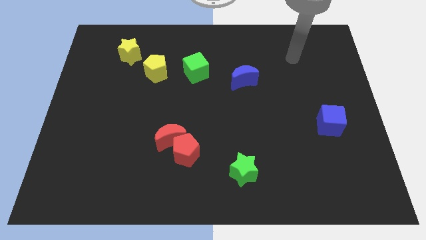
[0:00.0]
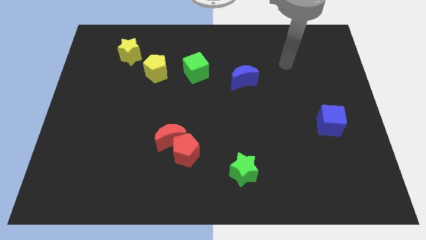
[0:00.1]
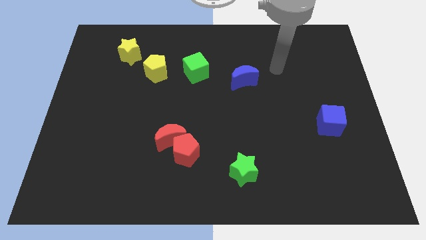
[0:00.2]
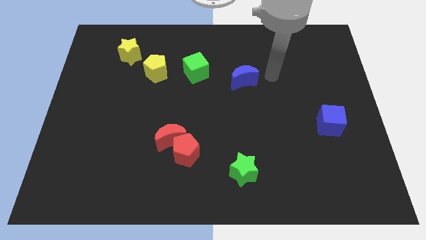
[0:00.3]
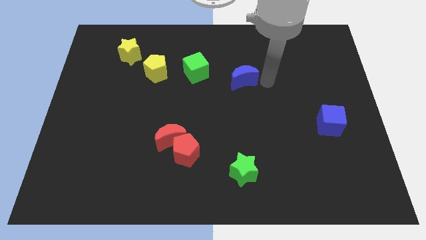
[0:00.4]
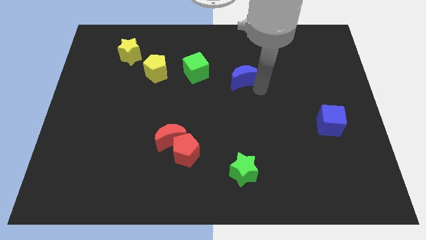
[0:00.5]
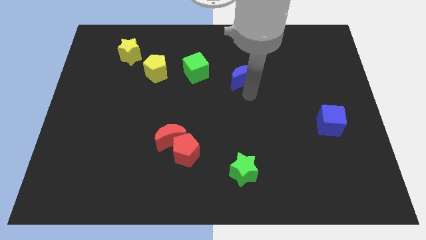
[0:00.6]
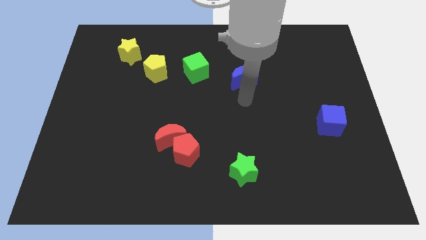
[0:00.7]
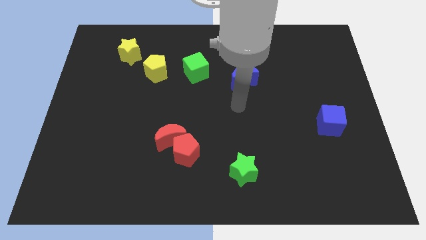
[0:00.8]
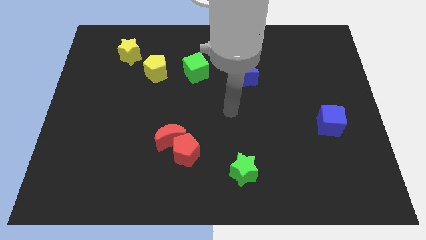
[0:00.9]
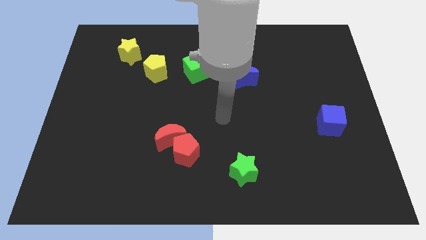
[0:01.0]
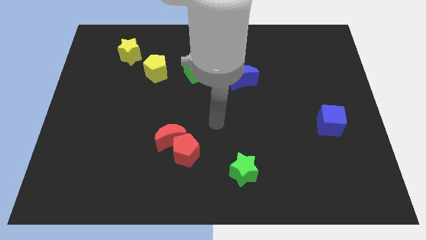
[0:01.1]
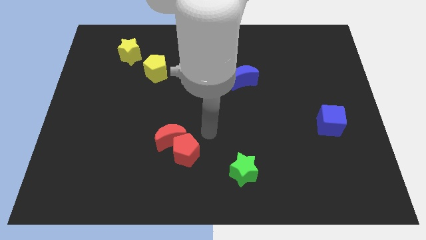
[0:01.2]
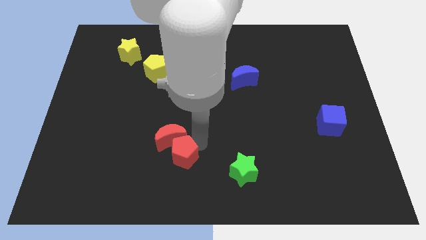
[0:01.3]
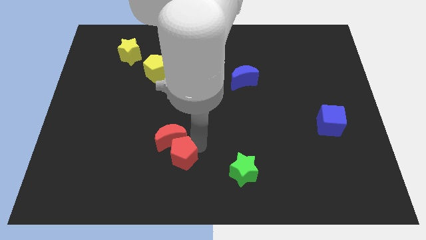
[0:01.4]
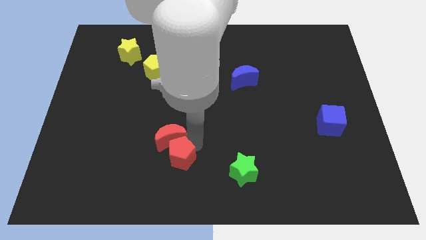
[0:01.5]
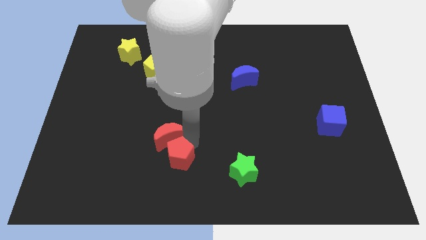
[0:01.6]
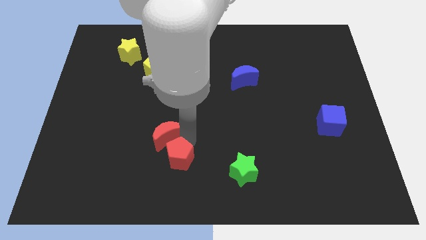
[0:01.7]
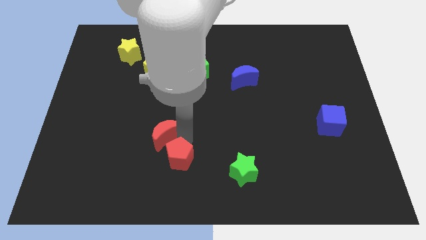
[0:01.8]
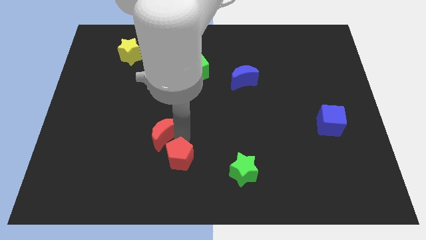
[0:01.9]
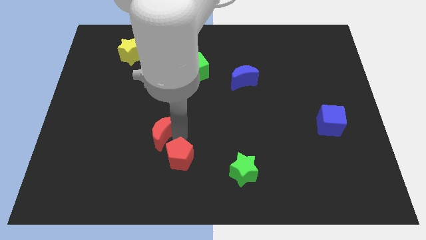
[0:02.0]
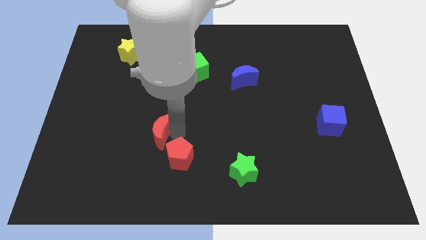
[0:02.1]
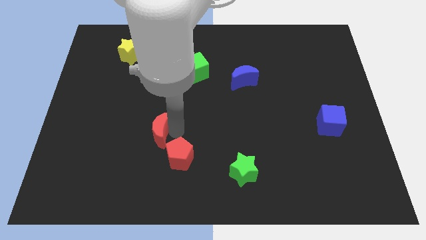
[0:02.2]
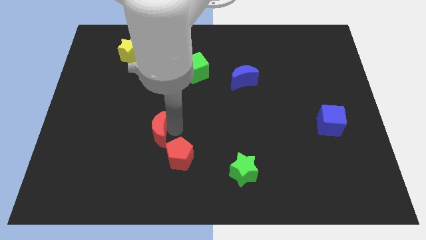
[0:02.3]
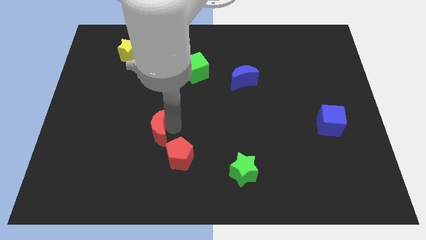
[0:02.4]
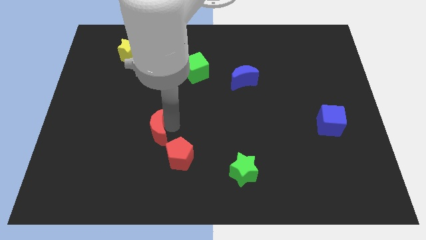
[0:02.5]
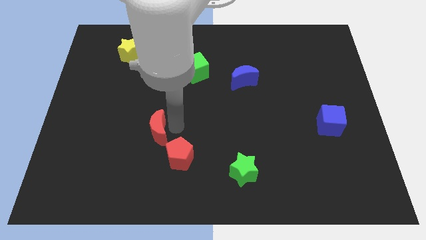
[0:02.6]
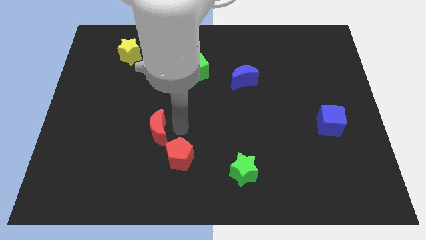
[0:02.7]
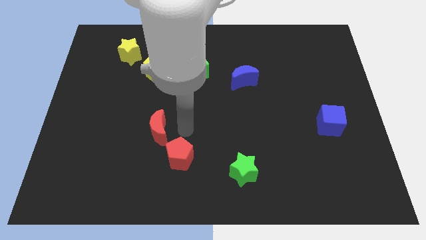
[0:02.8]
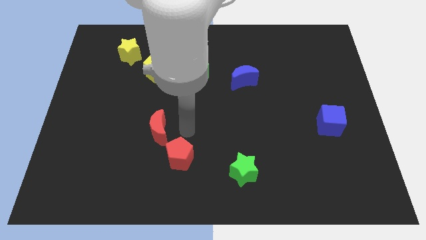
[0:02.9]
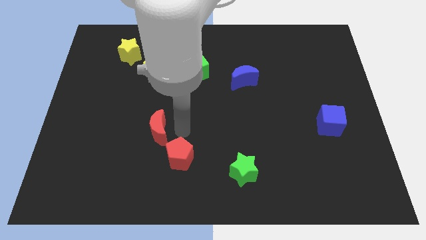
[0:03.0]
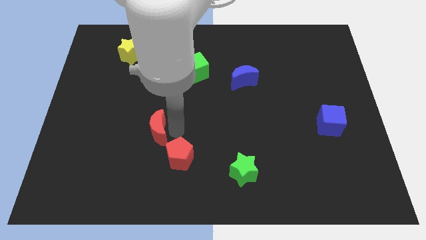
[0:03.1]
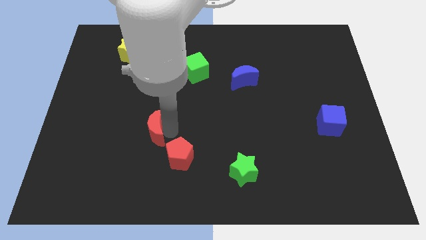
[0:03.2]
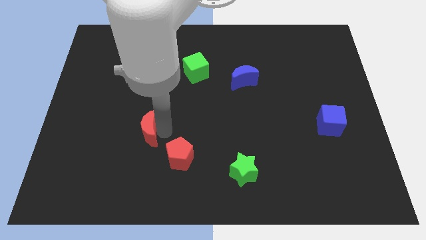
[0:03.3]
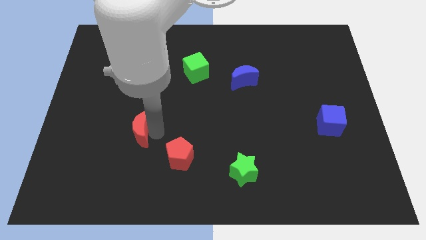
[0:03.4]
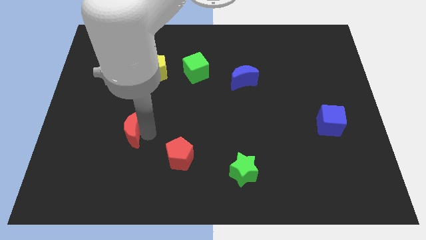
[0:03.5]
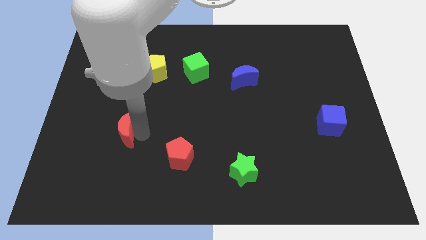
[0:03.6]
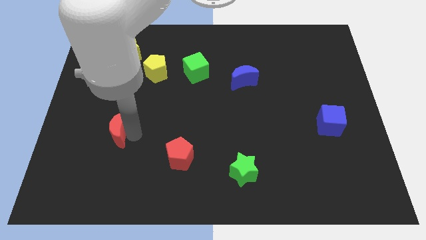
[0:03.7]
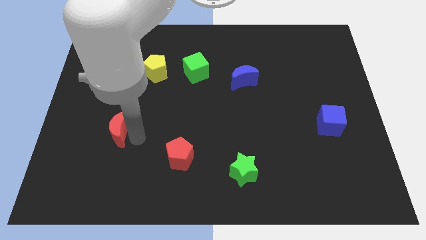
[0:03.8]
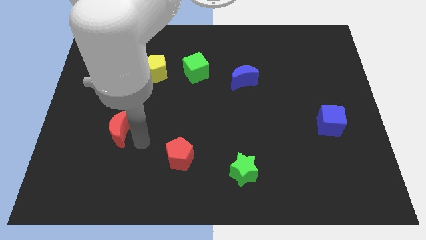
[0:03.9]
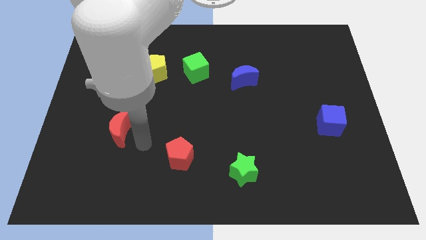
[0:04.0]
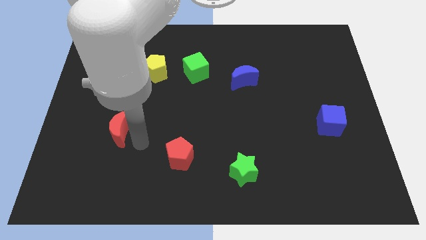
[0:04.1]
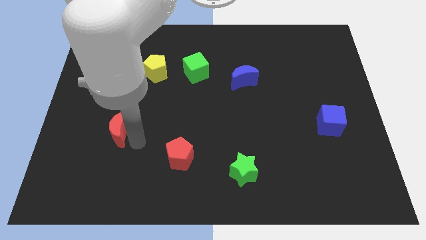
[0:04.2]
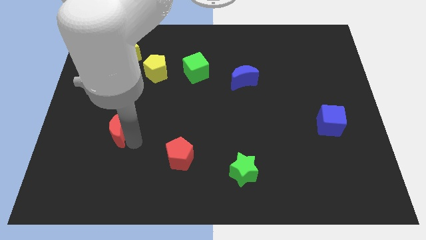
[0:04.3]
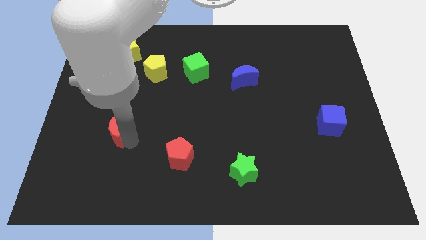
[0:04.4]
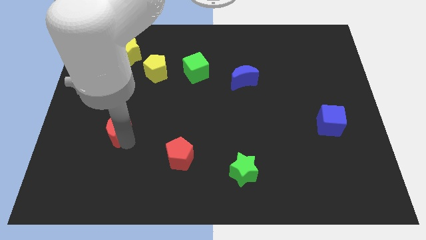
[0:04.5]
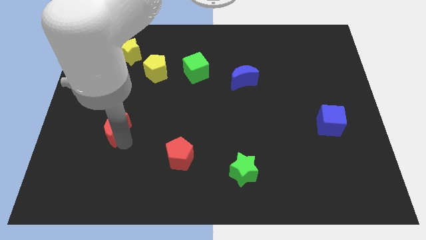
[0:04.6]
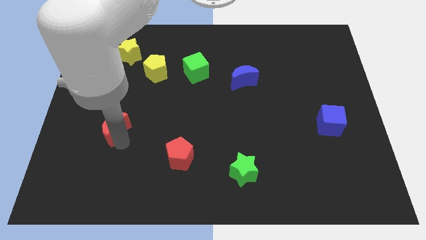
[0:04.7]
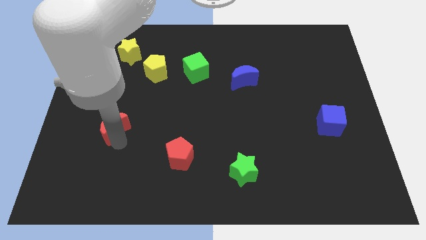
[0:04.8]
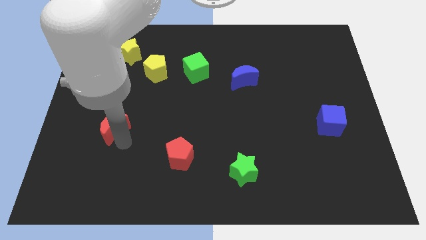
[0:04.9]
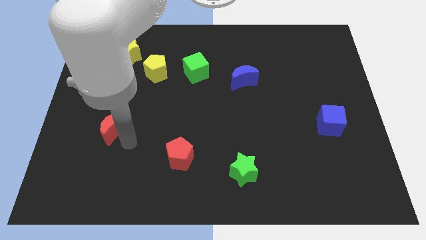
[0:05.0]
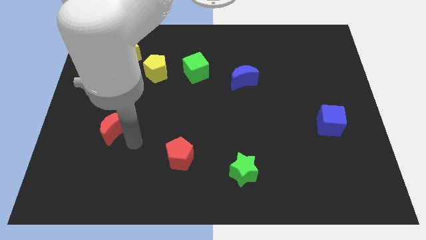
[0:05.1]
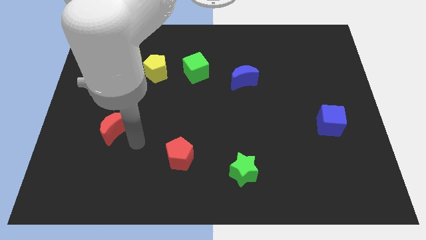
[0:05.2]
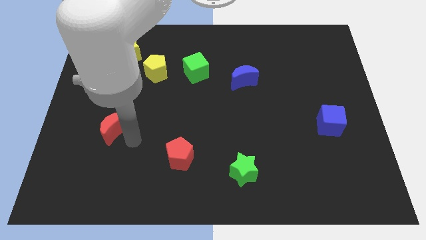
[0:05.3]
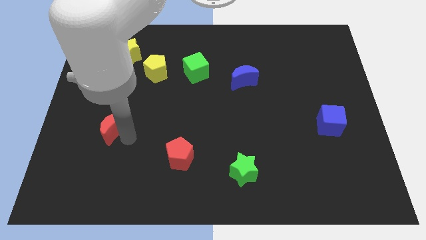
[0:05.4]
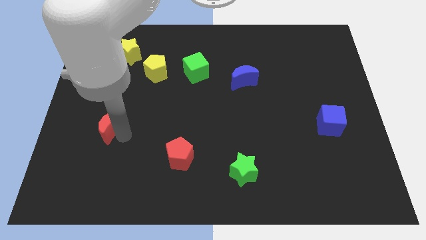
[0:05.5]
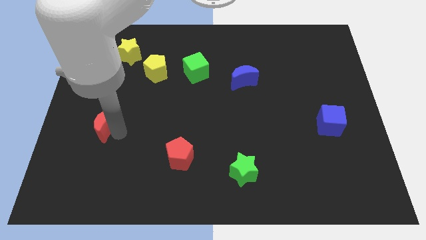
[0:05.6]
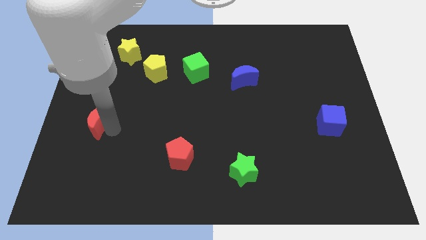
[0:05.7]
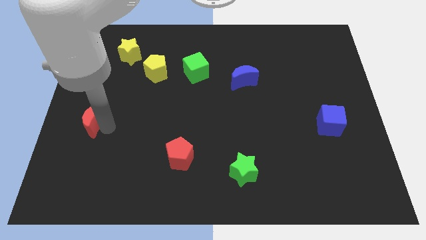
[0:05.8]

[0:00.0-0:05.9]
push the red moon to the left side of the board
